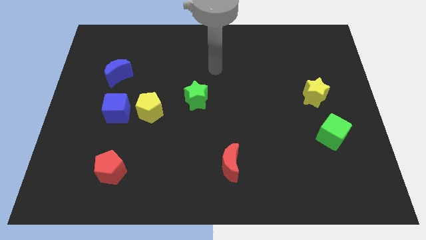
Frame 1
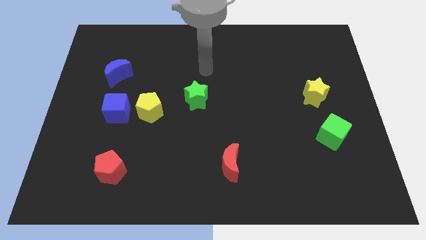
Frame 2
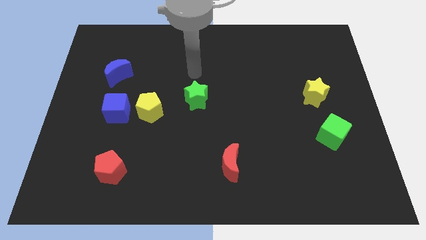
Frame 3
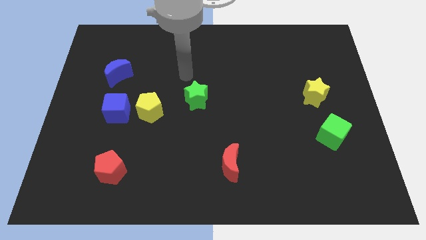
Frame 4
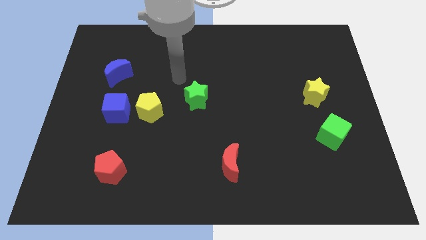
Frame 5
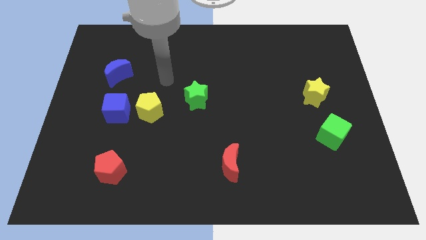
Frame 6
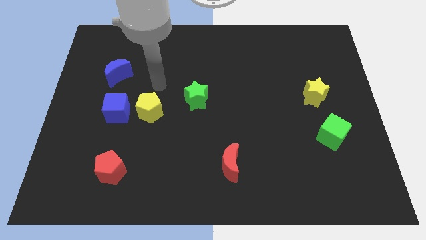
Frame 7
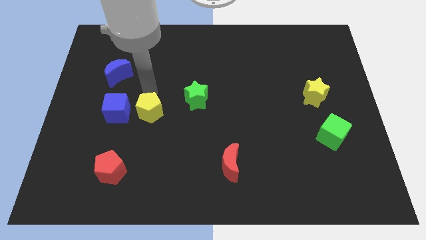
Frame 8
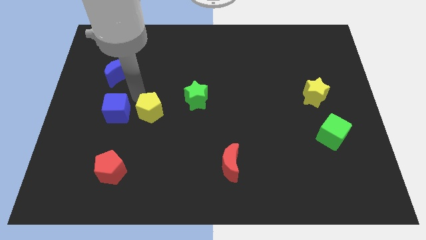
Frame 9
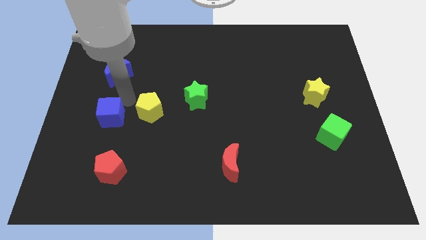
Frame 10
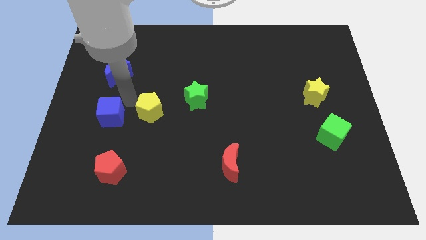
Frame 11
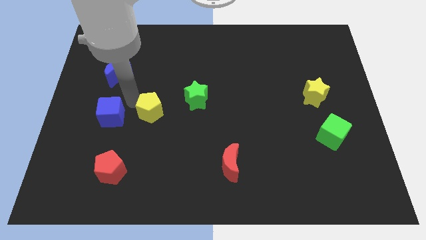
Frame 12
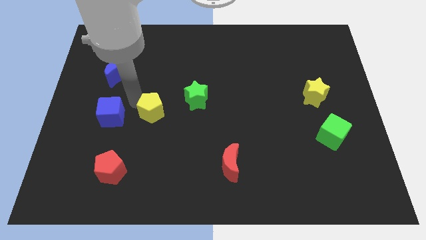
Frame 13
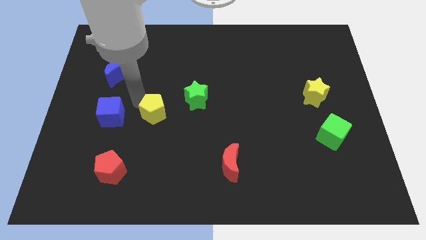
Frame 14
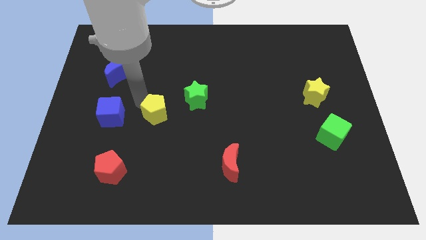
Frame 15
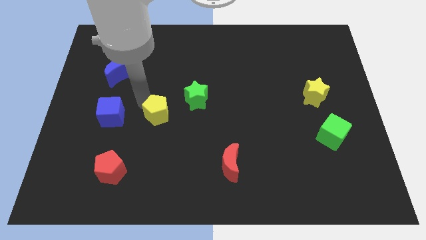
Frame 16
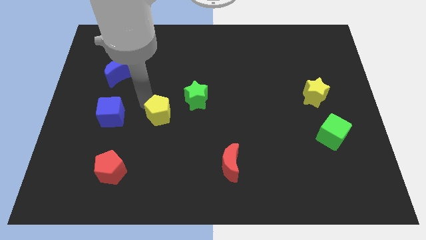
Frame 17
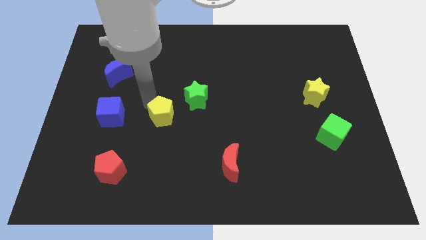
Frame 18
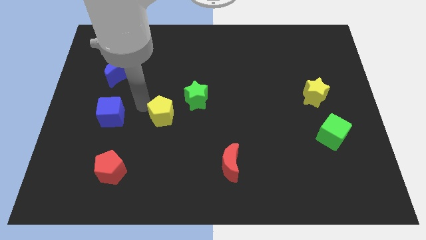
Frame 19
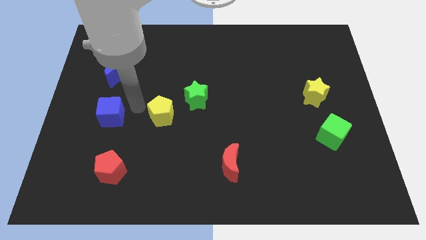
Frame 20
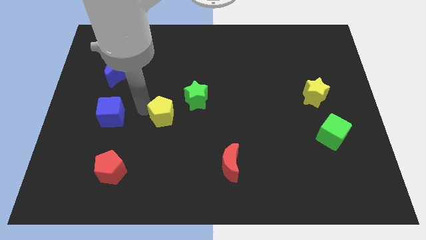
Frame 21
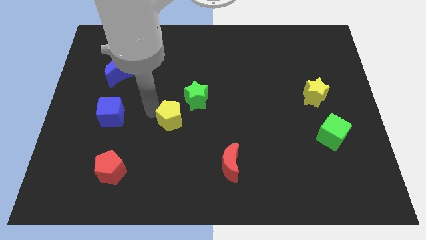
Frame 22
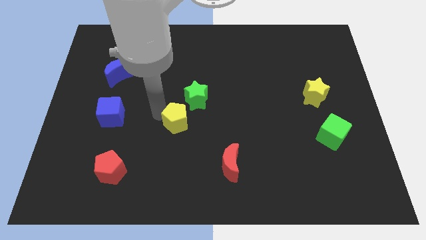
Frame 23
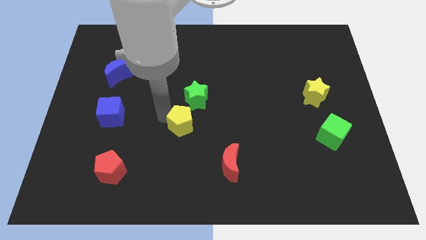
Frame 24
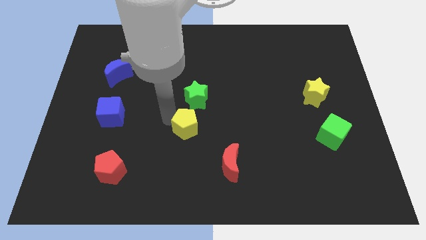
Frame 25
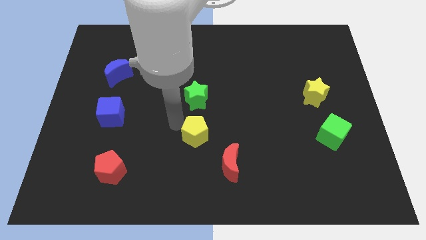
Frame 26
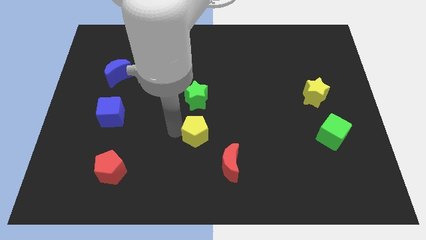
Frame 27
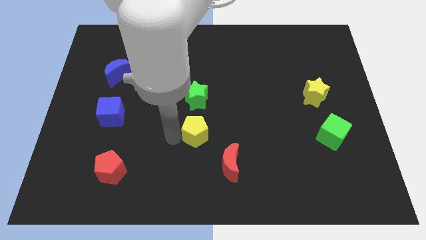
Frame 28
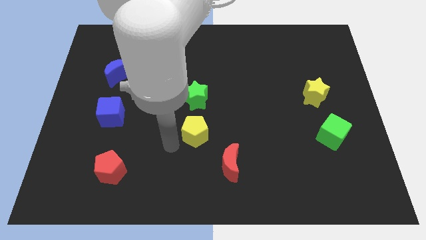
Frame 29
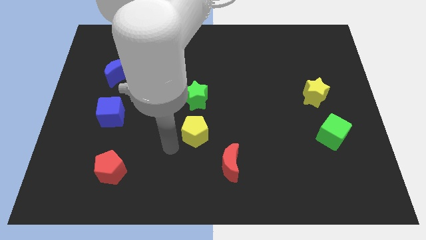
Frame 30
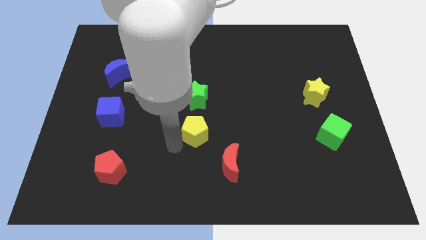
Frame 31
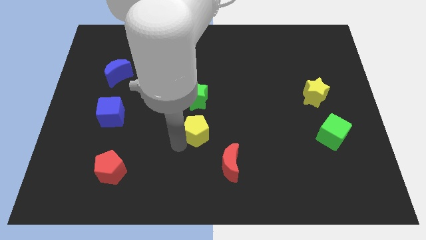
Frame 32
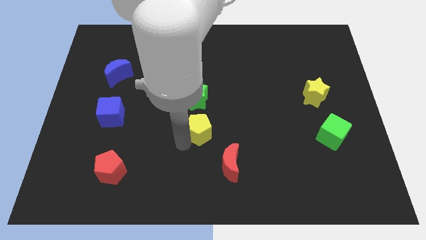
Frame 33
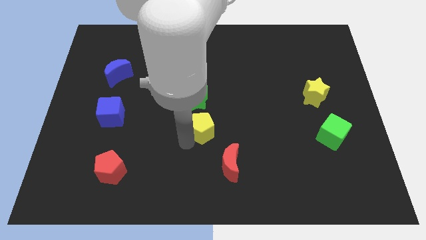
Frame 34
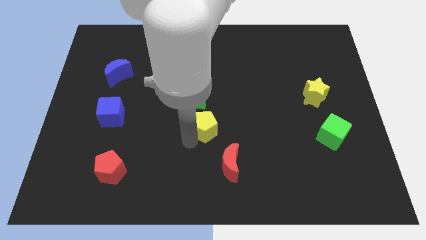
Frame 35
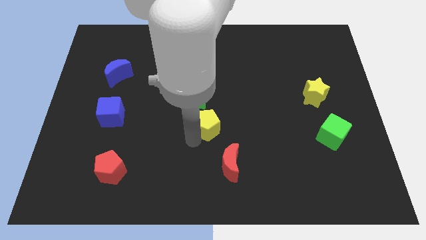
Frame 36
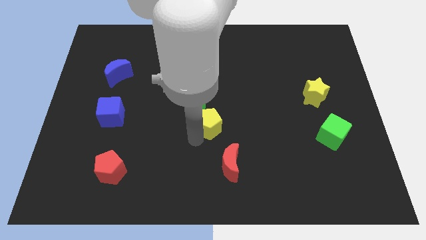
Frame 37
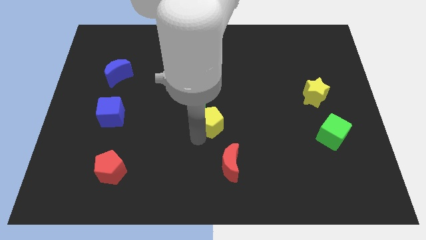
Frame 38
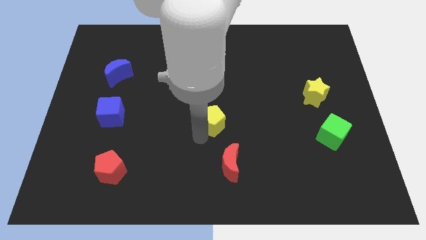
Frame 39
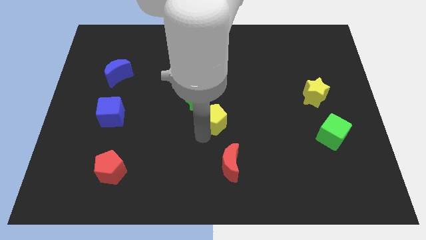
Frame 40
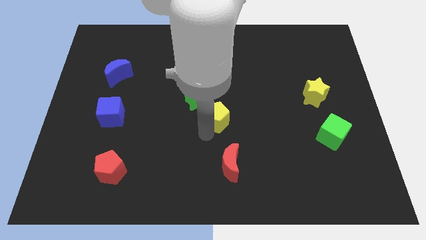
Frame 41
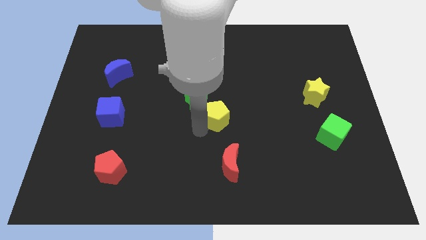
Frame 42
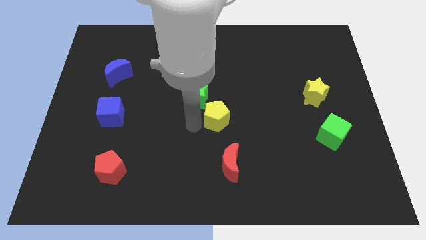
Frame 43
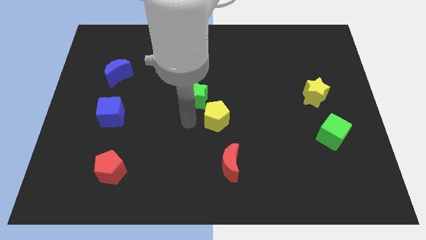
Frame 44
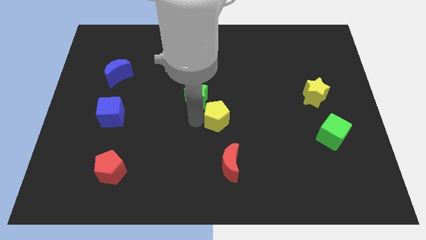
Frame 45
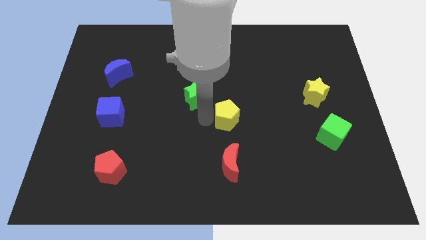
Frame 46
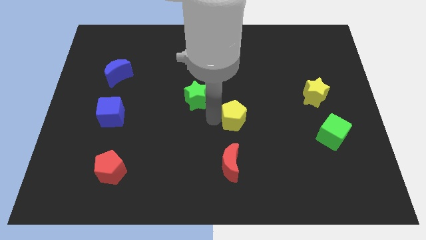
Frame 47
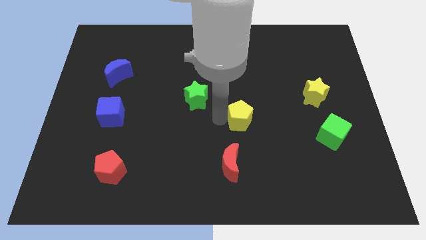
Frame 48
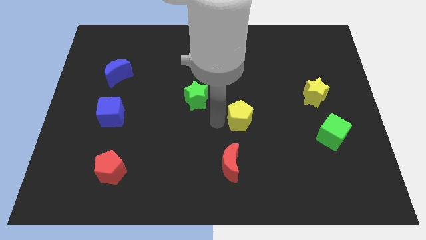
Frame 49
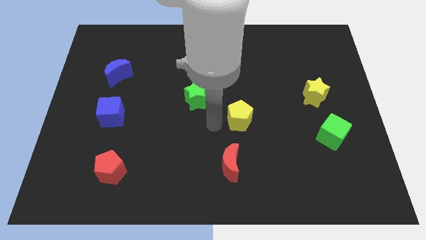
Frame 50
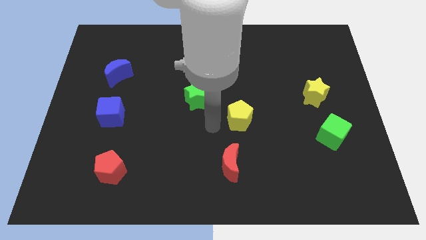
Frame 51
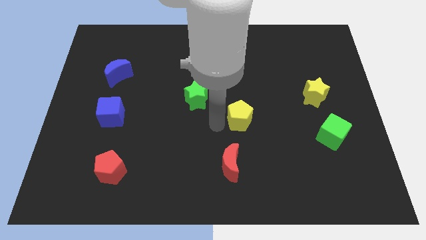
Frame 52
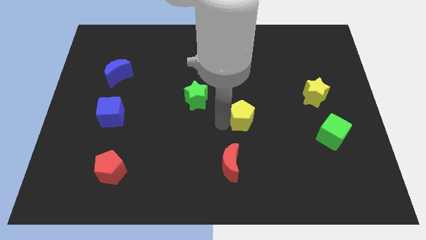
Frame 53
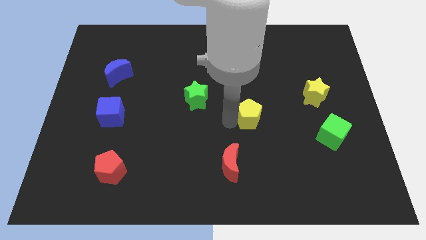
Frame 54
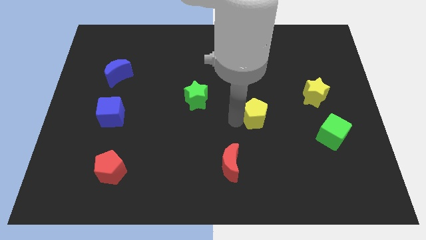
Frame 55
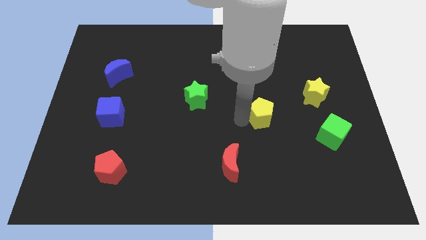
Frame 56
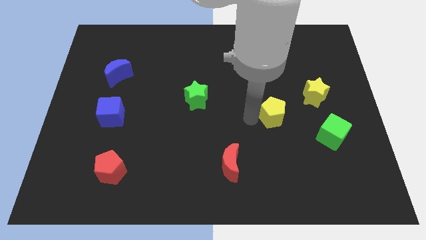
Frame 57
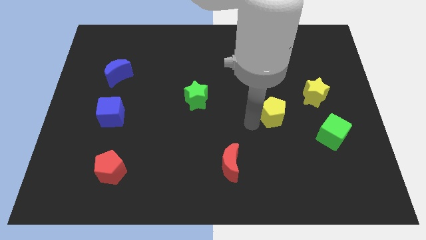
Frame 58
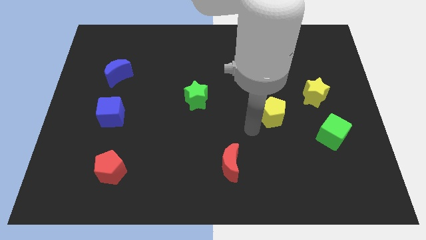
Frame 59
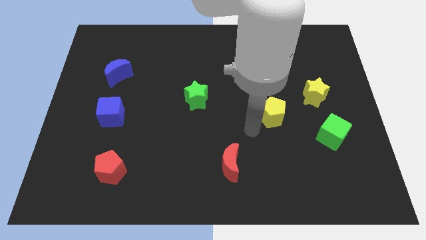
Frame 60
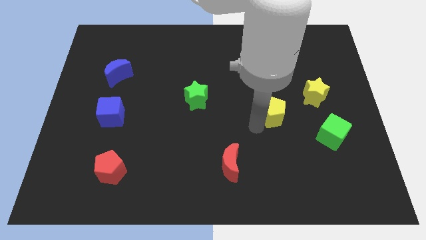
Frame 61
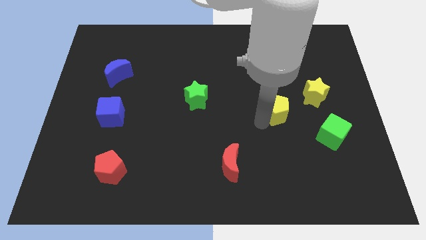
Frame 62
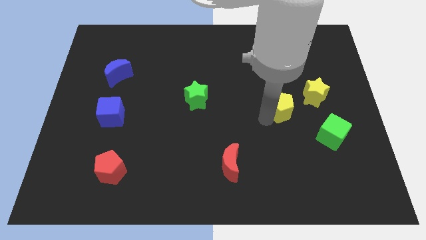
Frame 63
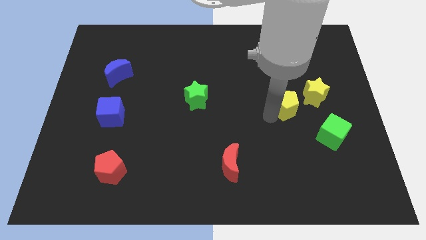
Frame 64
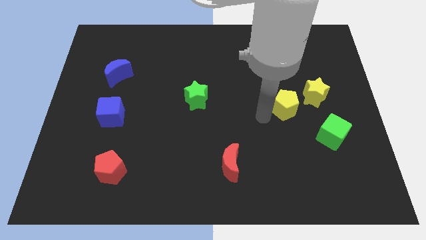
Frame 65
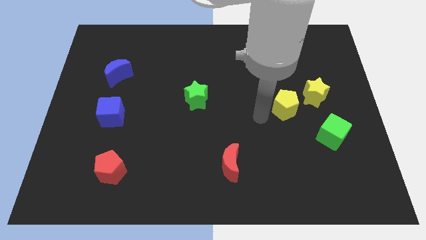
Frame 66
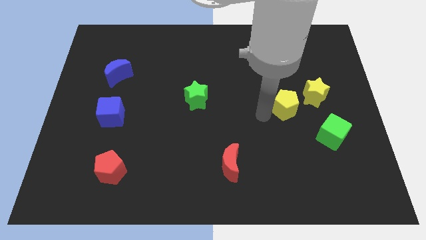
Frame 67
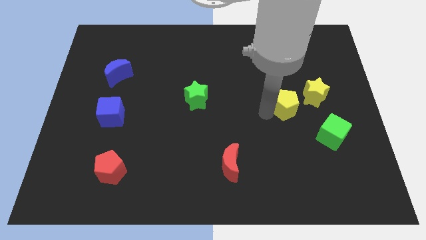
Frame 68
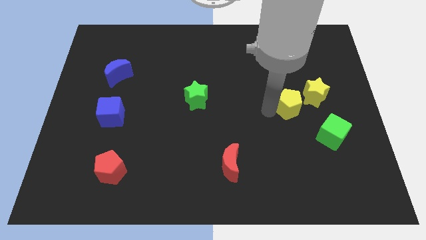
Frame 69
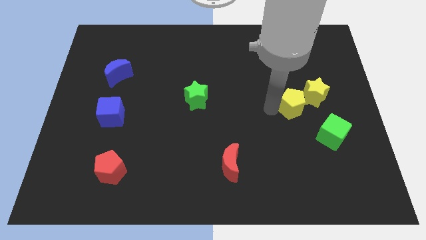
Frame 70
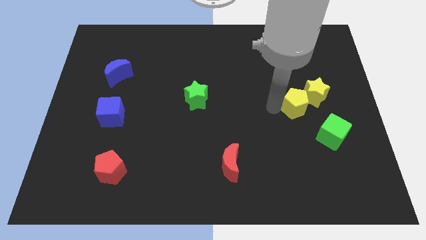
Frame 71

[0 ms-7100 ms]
slide the yellow pentagon to the yellow star
